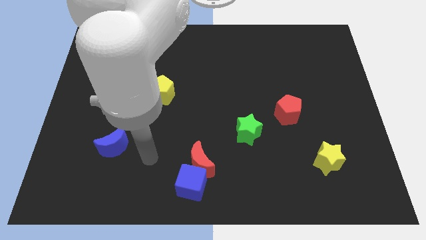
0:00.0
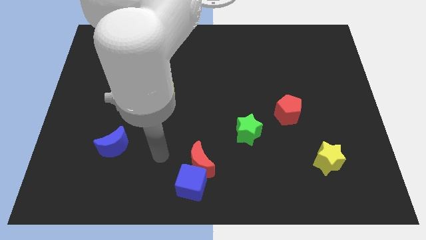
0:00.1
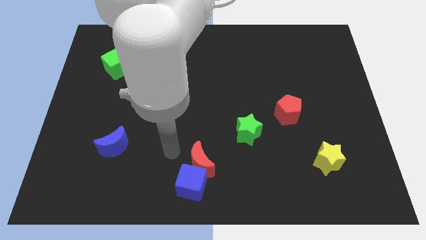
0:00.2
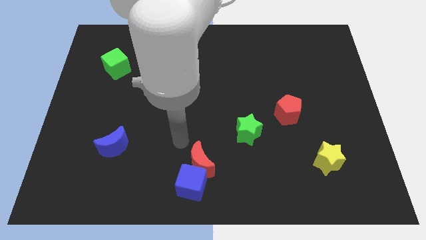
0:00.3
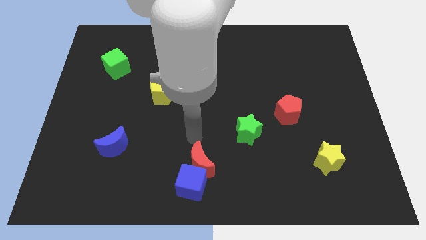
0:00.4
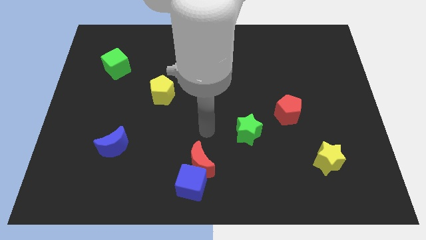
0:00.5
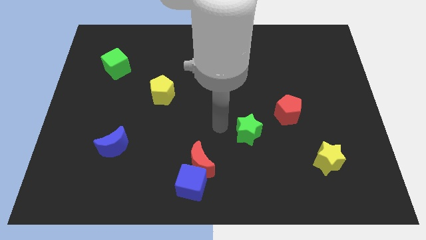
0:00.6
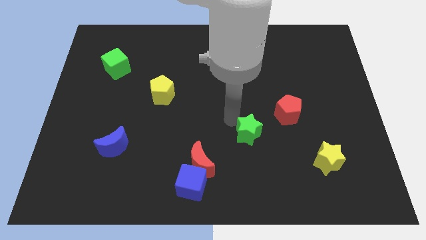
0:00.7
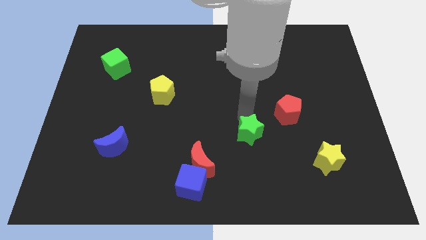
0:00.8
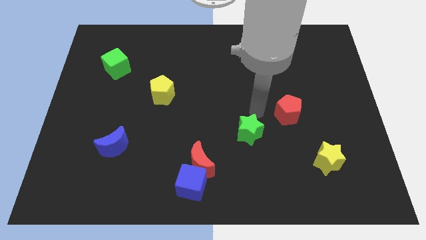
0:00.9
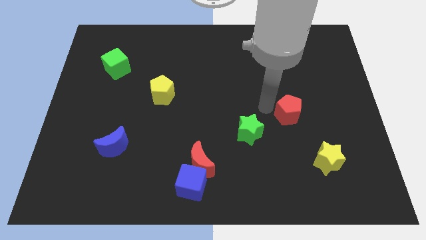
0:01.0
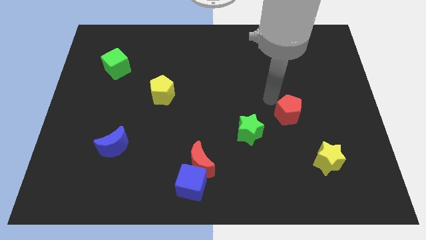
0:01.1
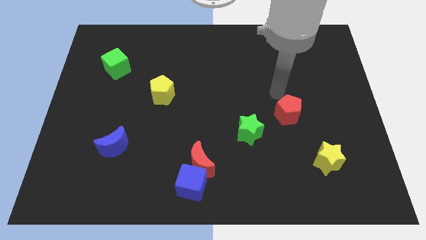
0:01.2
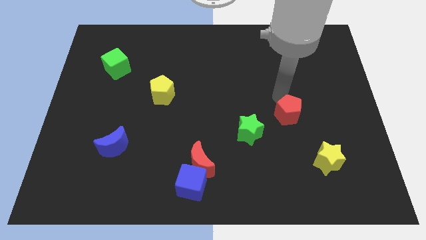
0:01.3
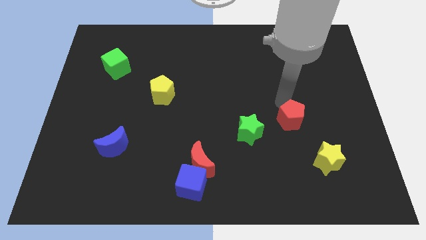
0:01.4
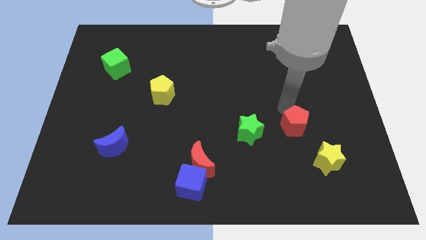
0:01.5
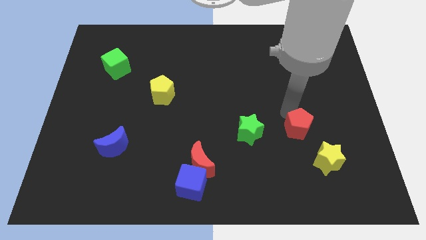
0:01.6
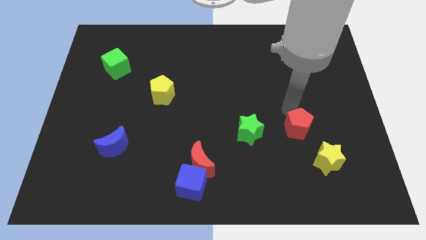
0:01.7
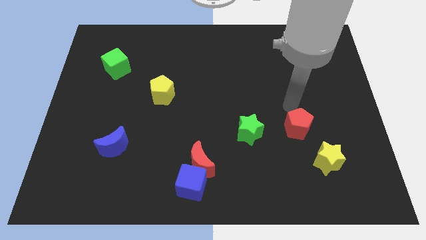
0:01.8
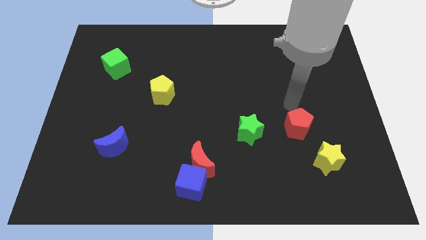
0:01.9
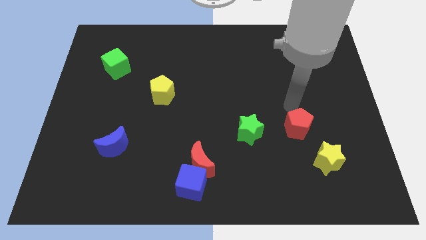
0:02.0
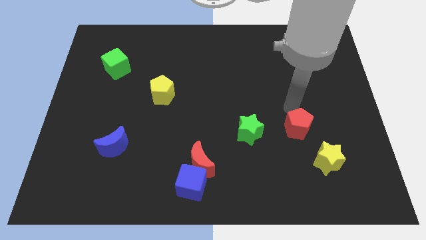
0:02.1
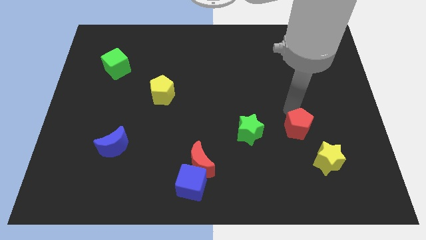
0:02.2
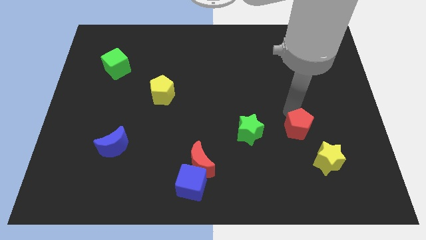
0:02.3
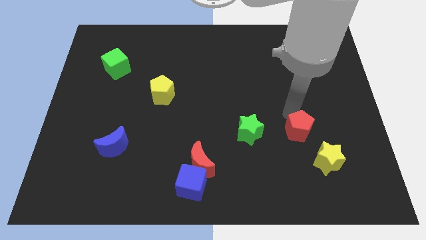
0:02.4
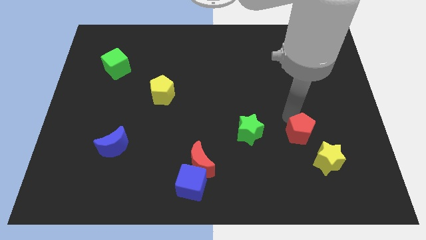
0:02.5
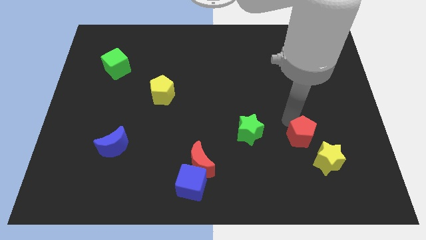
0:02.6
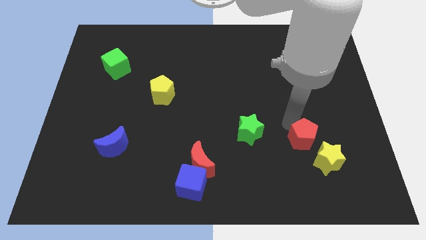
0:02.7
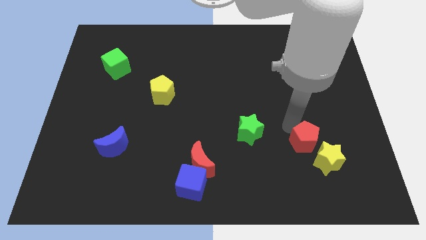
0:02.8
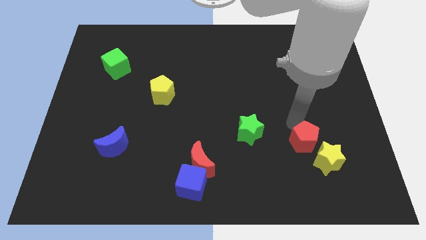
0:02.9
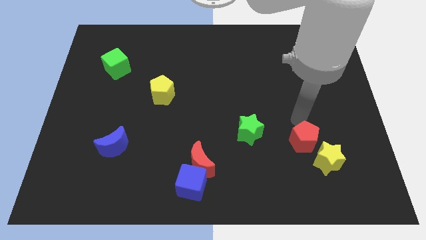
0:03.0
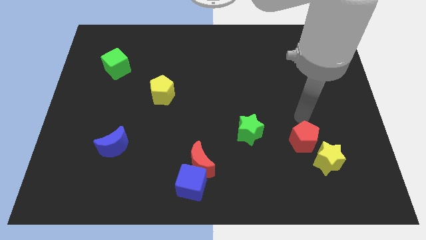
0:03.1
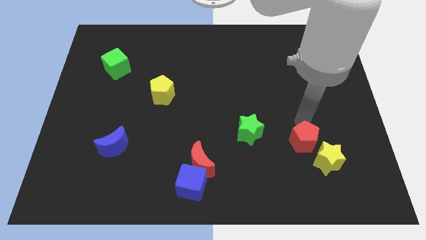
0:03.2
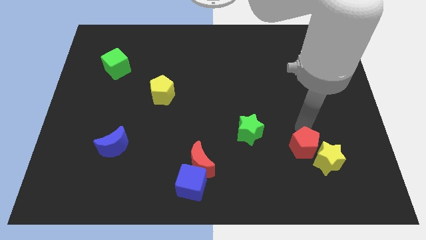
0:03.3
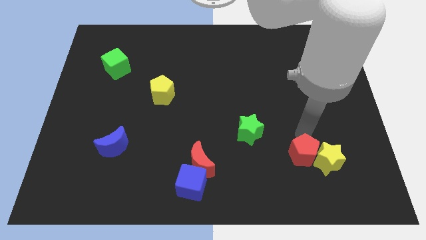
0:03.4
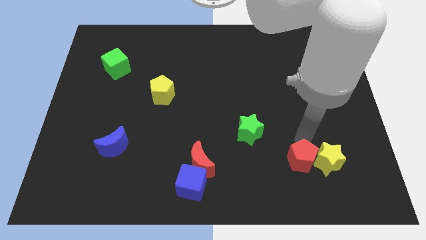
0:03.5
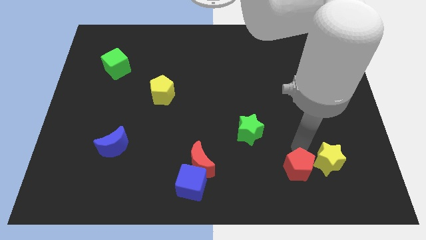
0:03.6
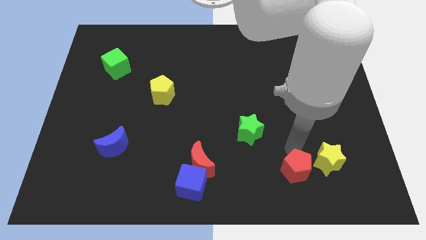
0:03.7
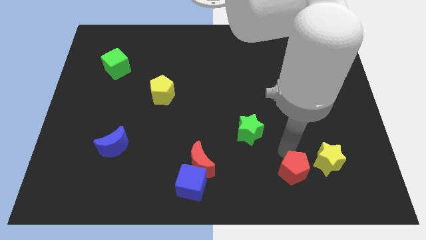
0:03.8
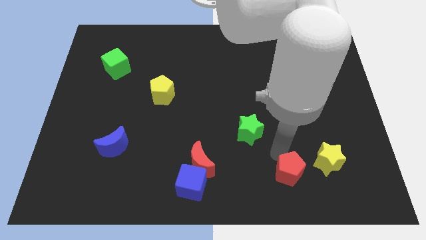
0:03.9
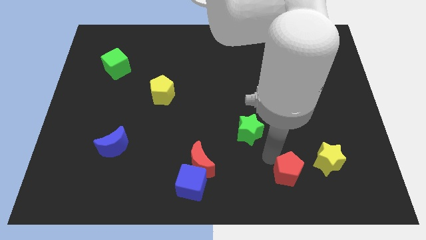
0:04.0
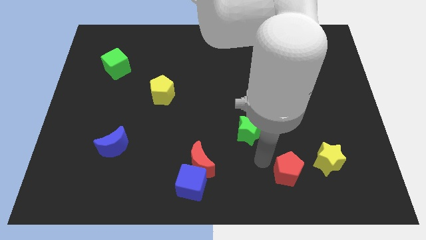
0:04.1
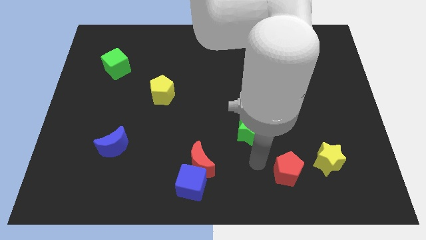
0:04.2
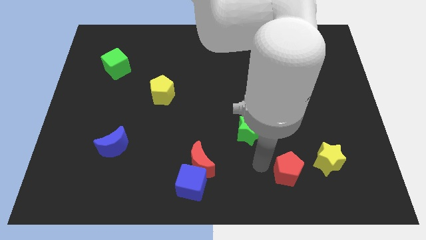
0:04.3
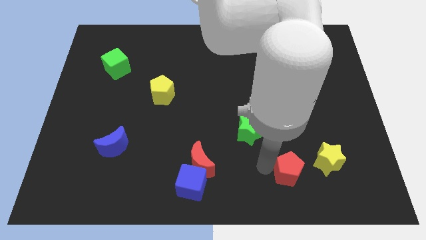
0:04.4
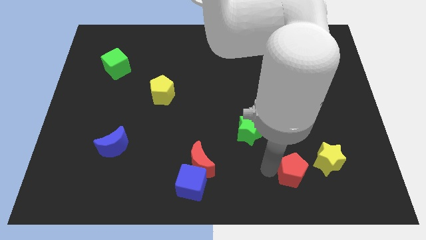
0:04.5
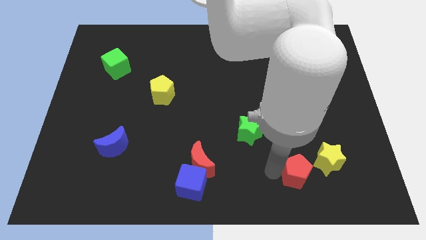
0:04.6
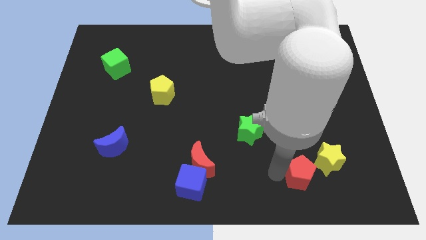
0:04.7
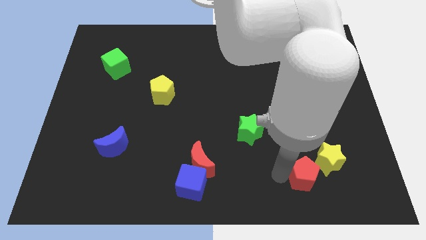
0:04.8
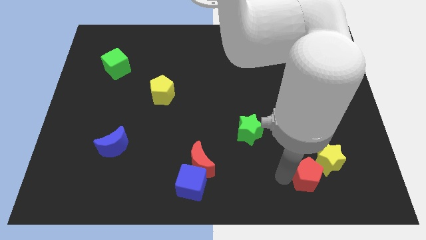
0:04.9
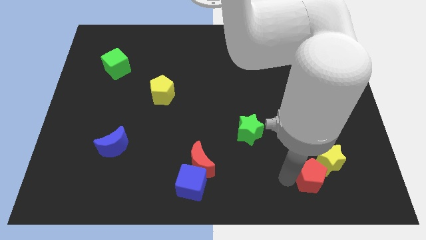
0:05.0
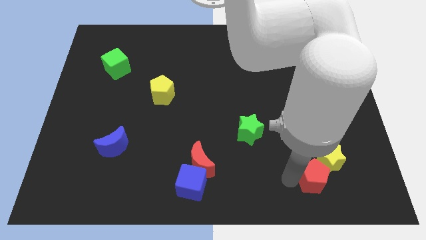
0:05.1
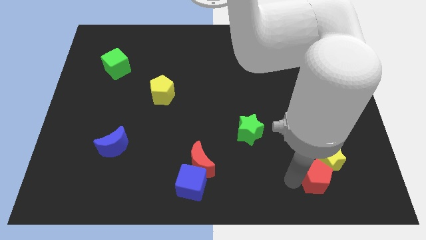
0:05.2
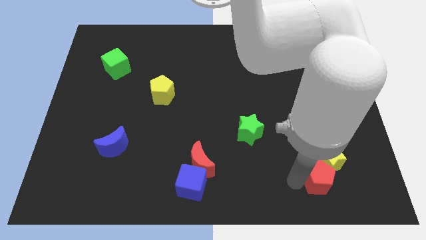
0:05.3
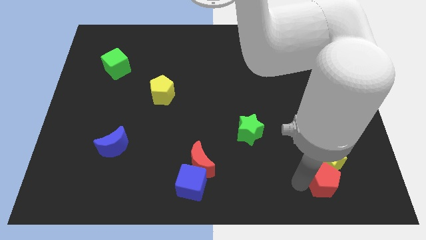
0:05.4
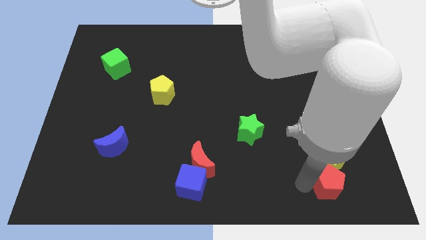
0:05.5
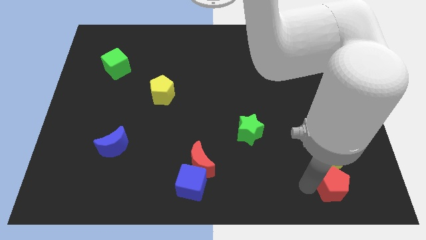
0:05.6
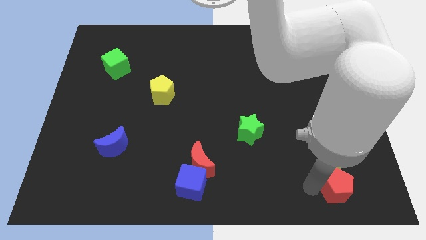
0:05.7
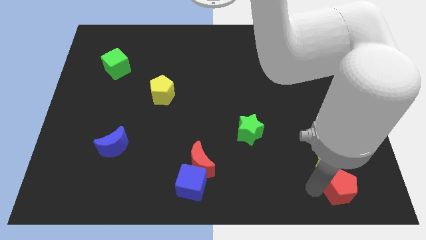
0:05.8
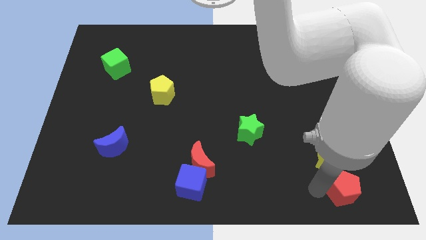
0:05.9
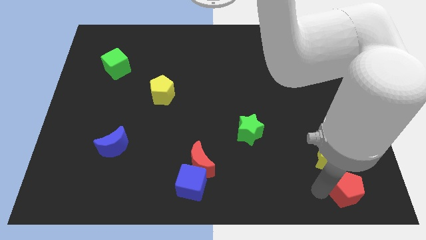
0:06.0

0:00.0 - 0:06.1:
move the red pentagon to the bottom right corner
